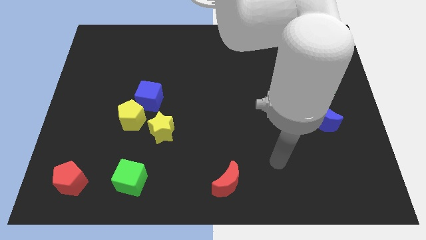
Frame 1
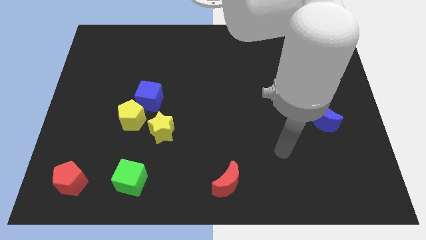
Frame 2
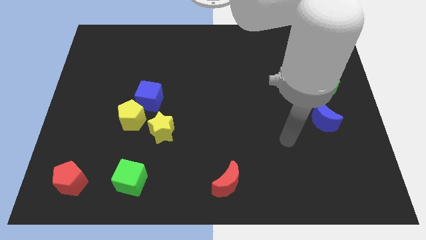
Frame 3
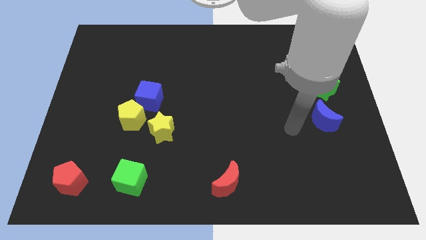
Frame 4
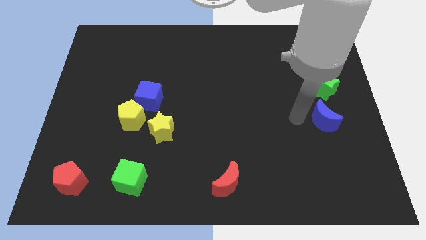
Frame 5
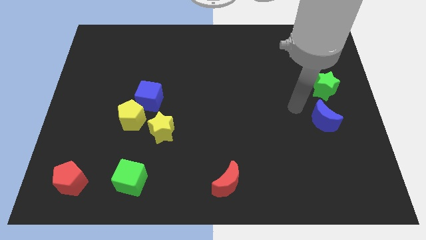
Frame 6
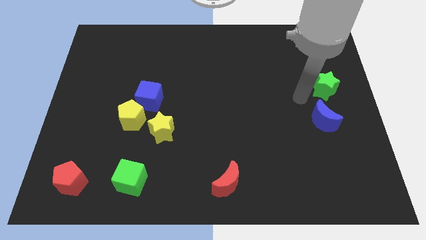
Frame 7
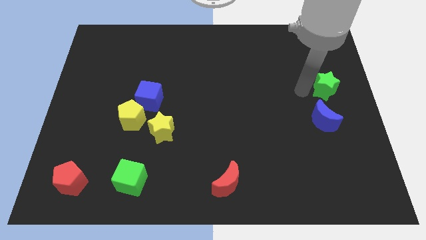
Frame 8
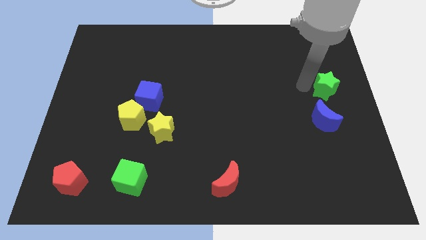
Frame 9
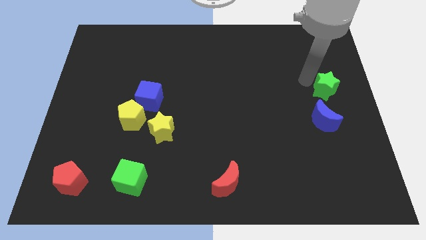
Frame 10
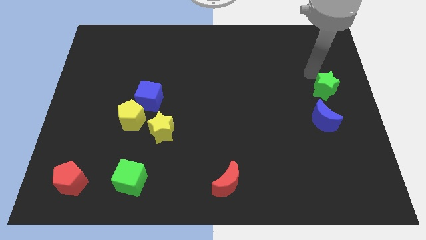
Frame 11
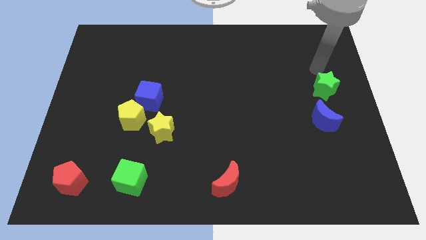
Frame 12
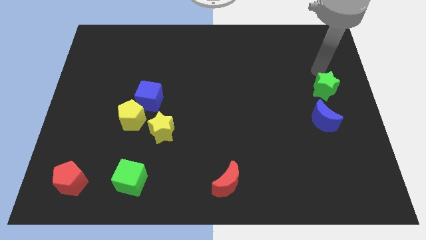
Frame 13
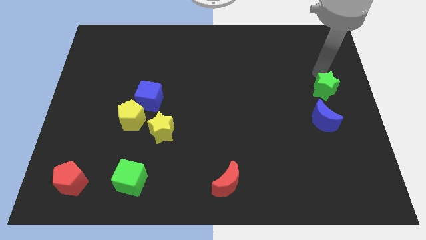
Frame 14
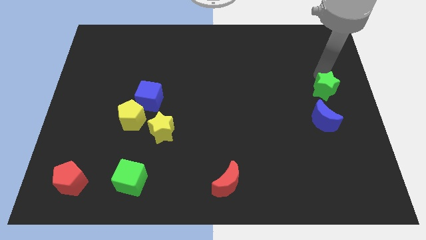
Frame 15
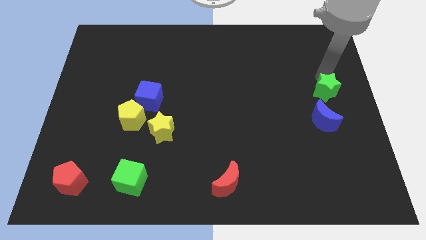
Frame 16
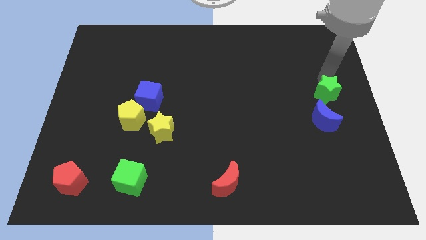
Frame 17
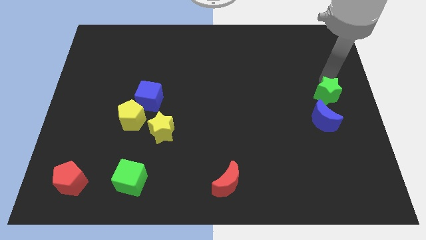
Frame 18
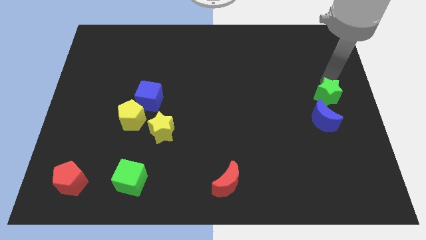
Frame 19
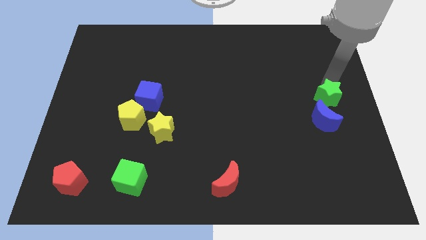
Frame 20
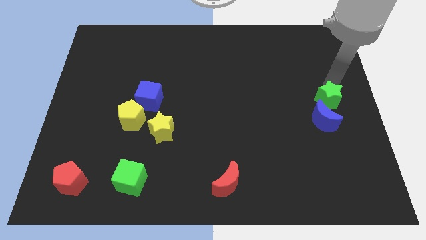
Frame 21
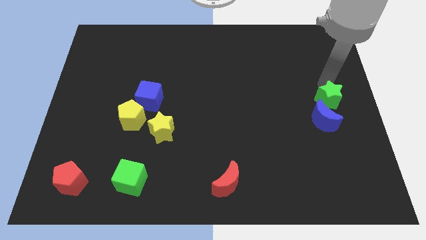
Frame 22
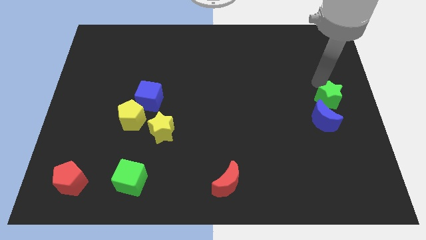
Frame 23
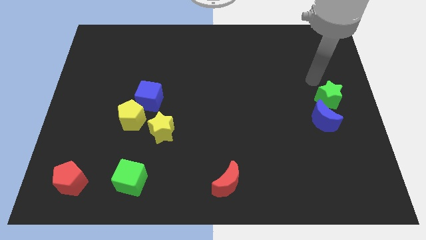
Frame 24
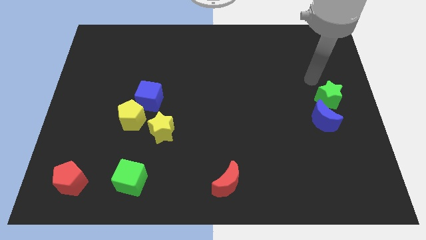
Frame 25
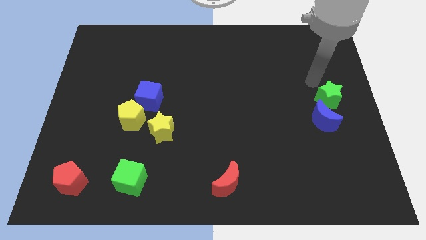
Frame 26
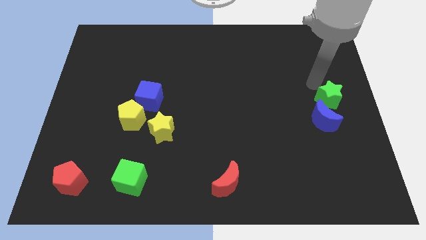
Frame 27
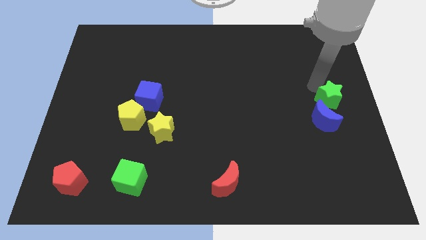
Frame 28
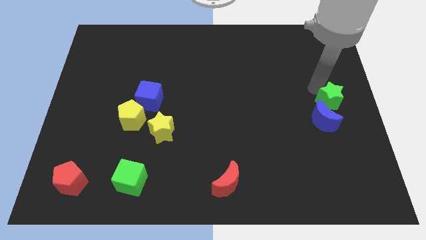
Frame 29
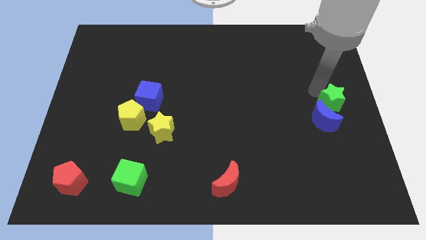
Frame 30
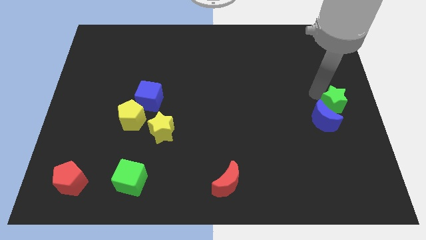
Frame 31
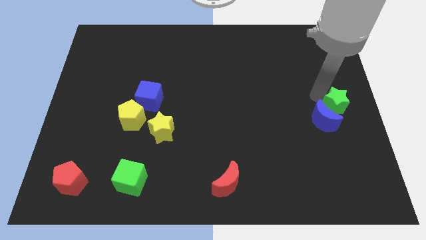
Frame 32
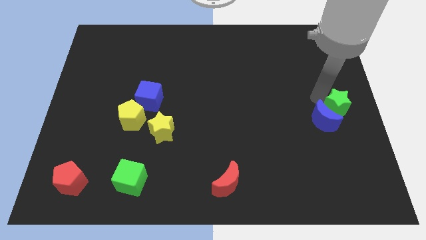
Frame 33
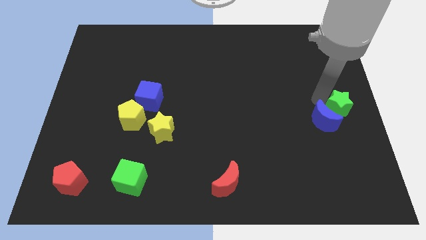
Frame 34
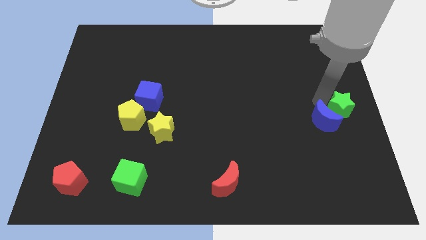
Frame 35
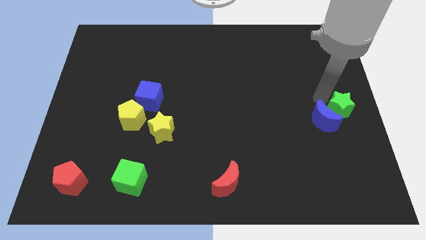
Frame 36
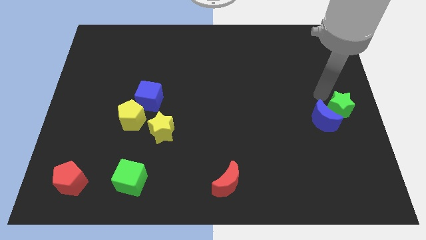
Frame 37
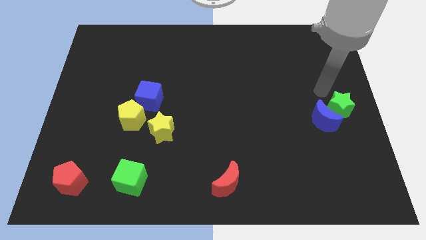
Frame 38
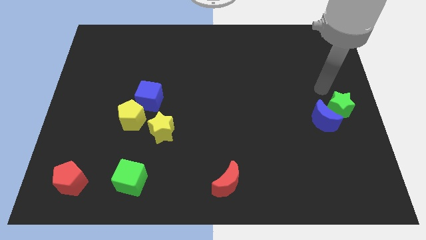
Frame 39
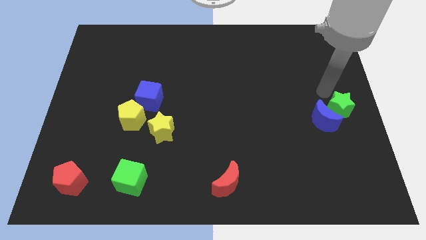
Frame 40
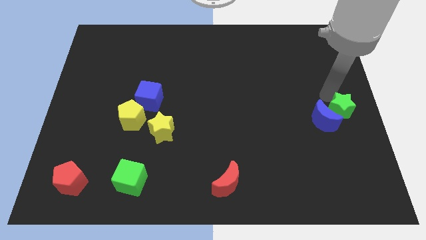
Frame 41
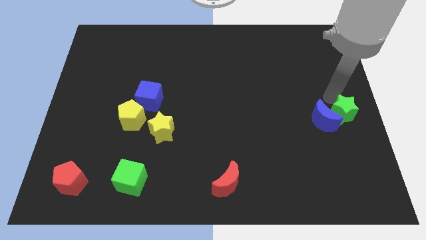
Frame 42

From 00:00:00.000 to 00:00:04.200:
slide the green star down a little bit

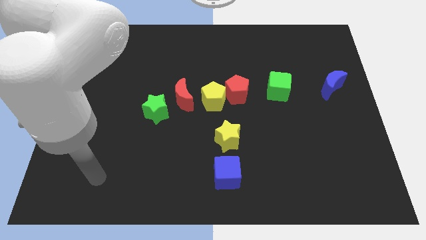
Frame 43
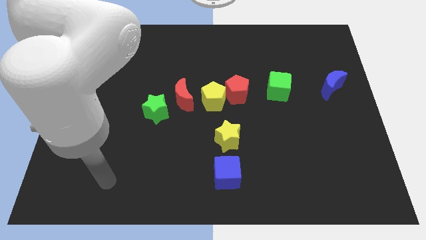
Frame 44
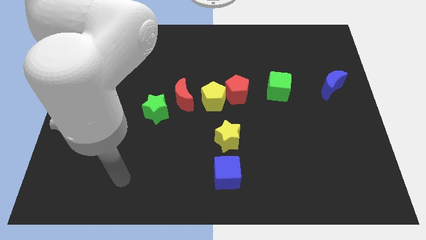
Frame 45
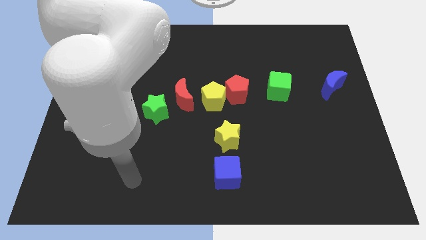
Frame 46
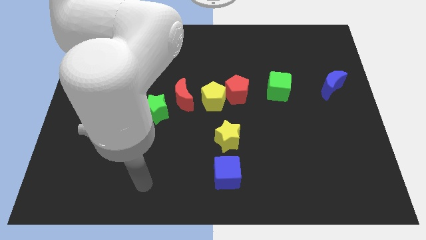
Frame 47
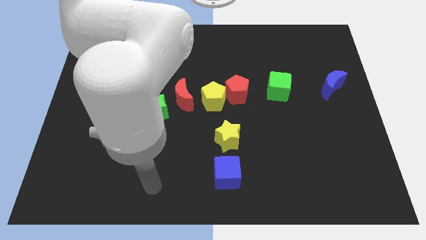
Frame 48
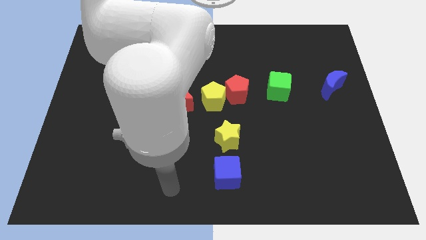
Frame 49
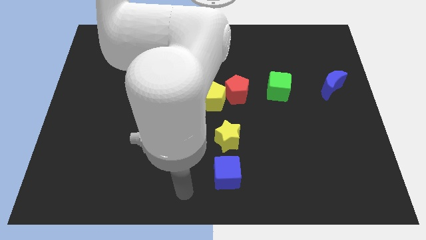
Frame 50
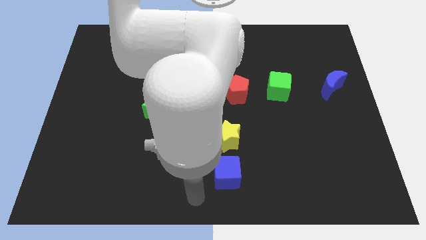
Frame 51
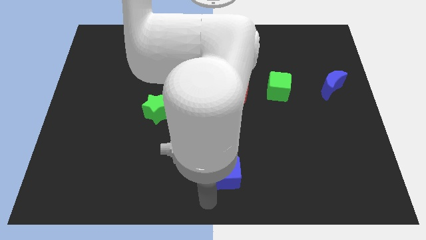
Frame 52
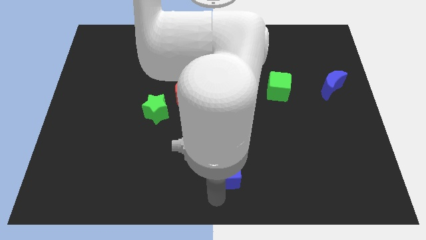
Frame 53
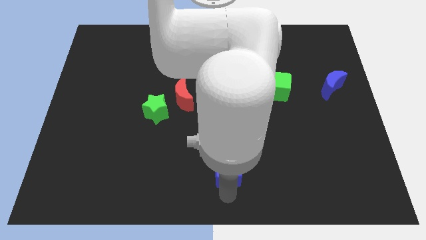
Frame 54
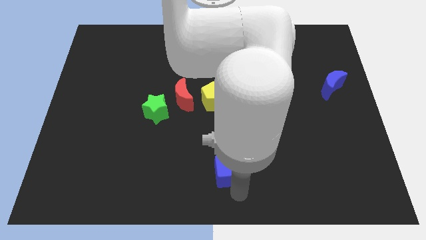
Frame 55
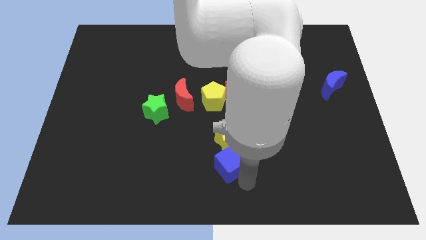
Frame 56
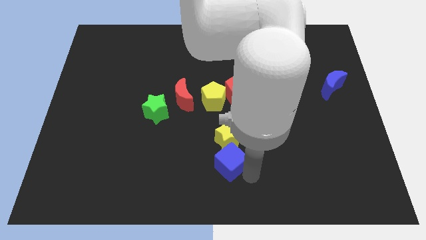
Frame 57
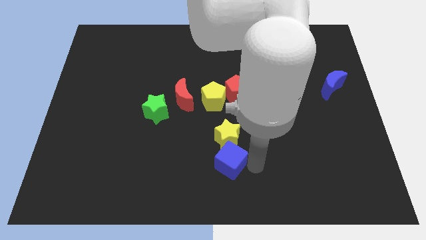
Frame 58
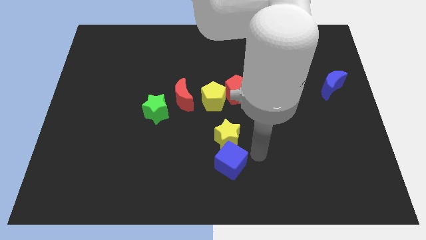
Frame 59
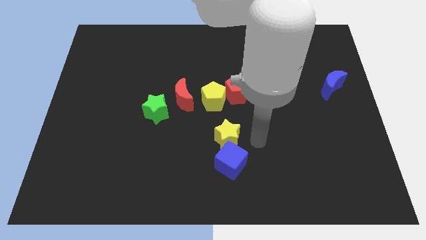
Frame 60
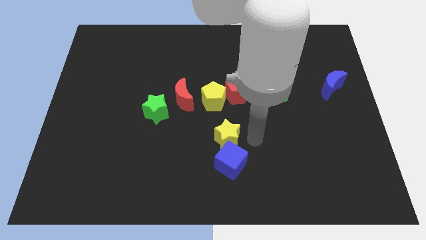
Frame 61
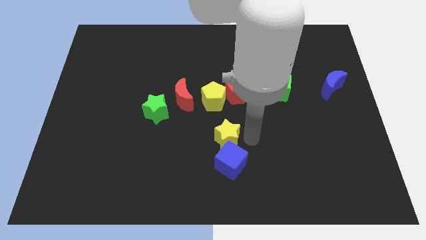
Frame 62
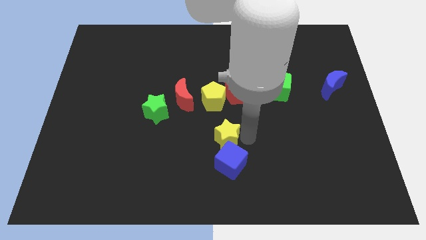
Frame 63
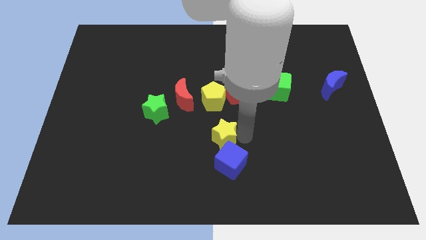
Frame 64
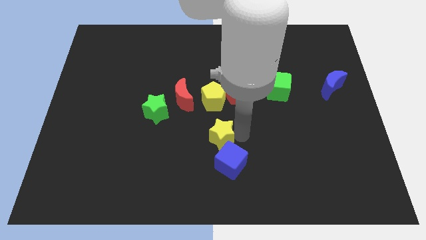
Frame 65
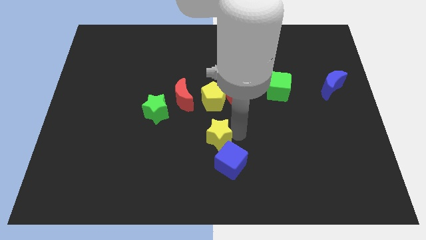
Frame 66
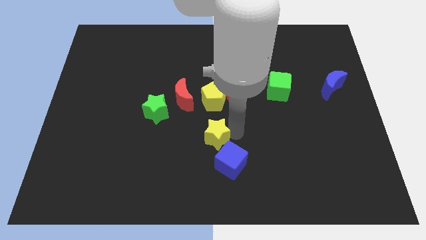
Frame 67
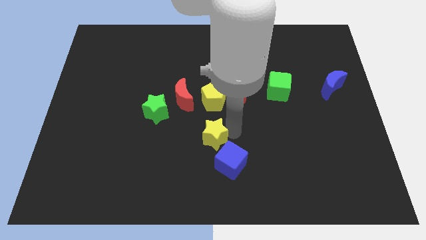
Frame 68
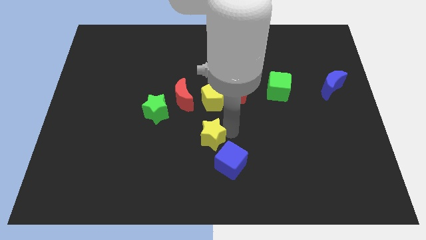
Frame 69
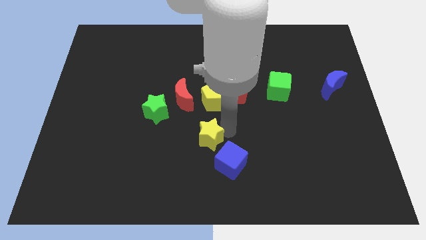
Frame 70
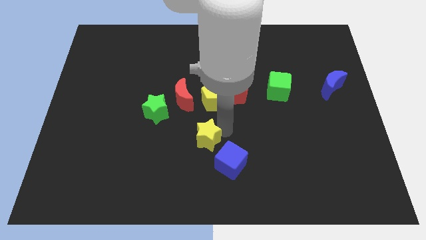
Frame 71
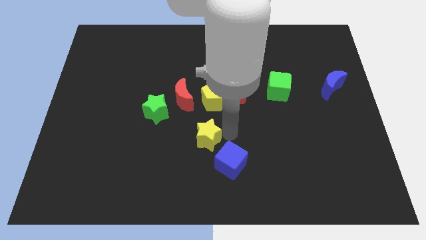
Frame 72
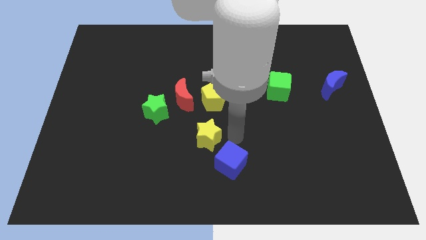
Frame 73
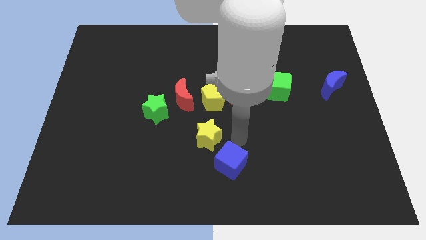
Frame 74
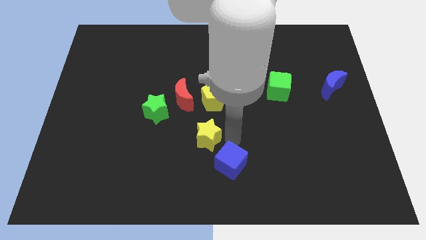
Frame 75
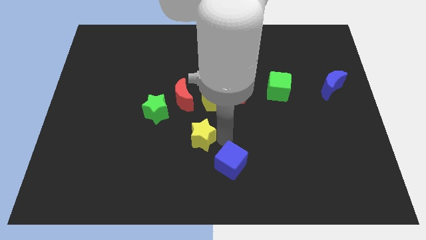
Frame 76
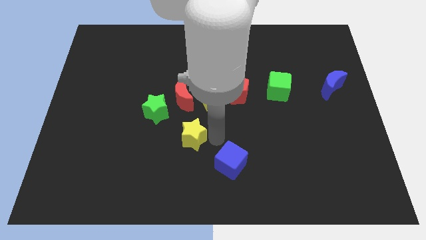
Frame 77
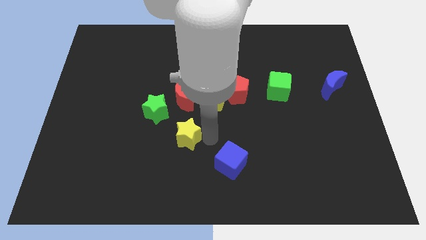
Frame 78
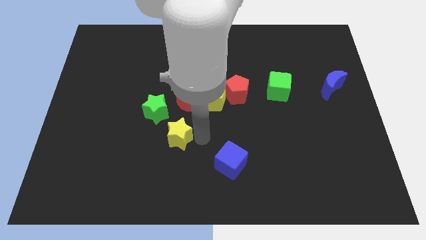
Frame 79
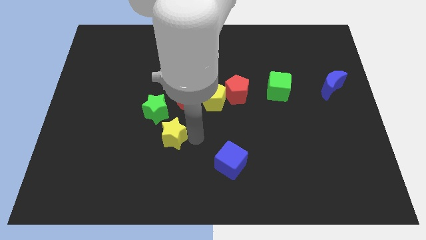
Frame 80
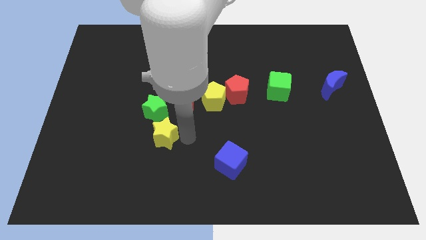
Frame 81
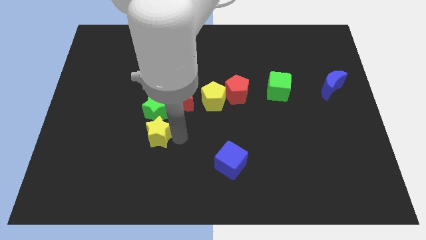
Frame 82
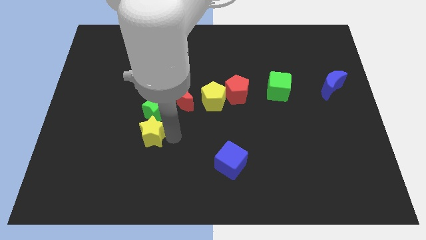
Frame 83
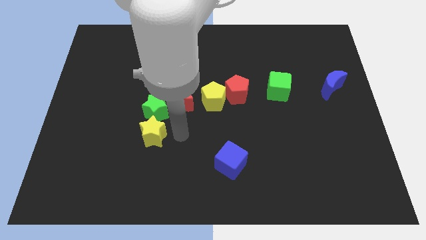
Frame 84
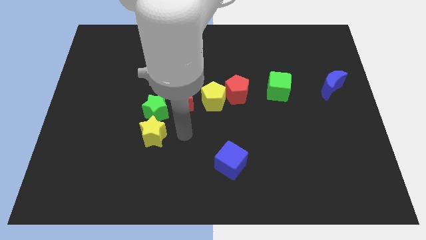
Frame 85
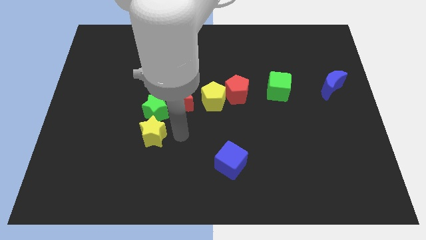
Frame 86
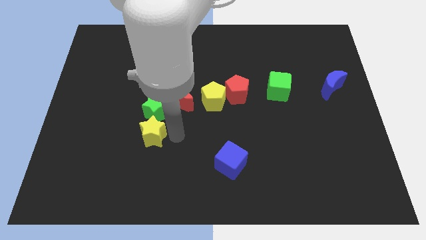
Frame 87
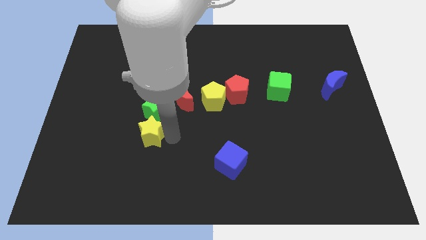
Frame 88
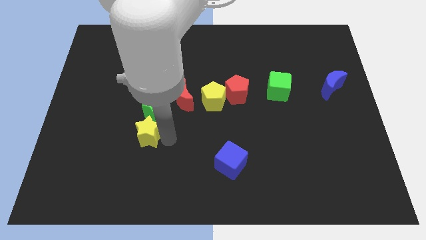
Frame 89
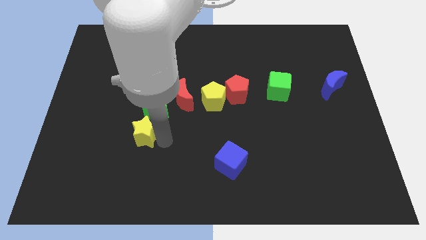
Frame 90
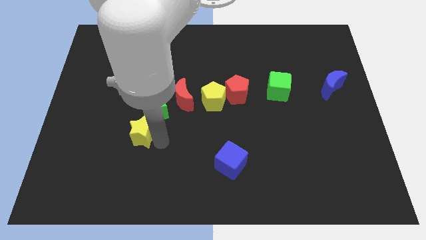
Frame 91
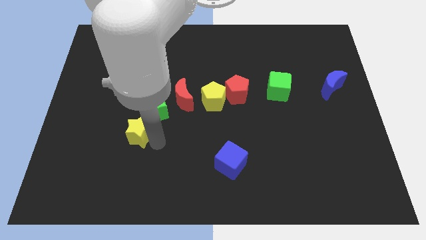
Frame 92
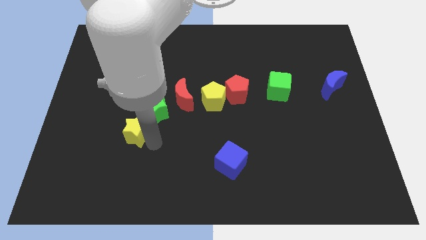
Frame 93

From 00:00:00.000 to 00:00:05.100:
move the yellow star to the left
